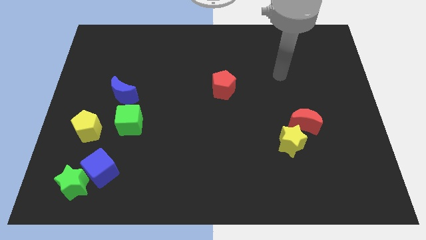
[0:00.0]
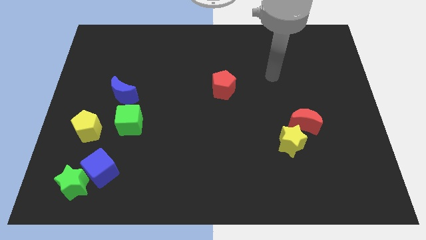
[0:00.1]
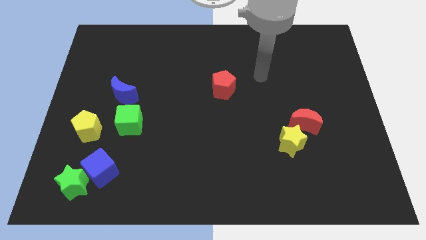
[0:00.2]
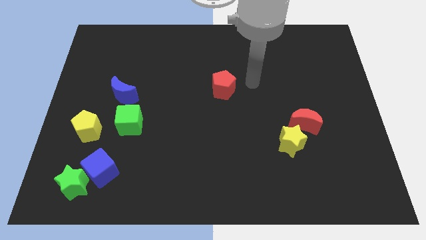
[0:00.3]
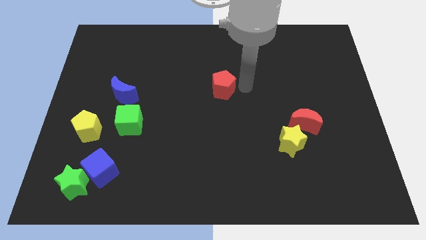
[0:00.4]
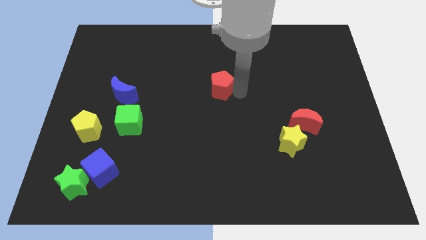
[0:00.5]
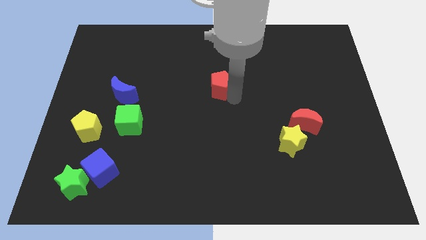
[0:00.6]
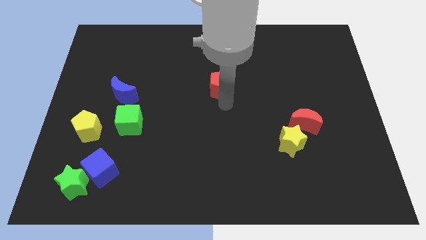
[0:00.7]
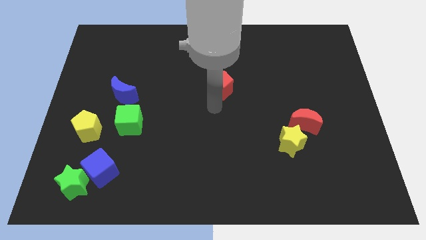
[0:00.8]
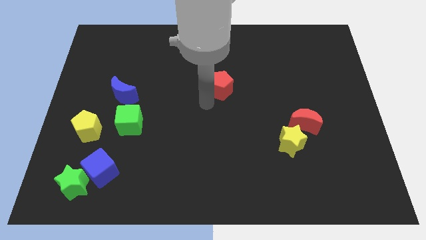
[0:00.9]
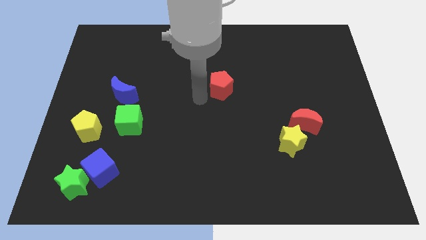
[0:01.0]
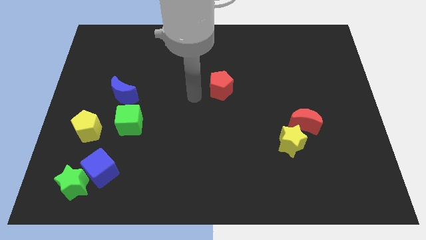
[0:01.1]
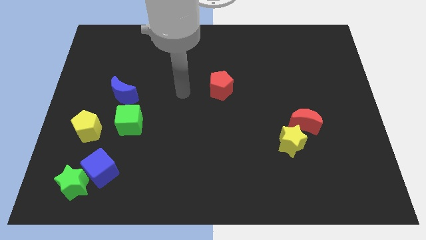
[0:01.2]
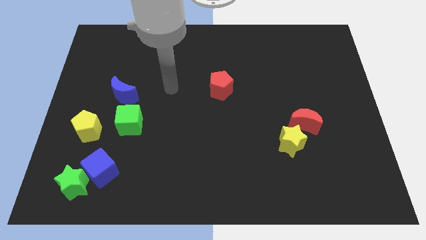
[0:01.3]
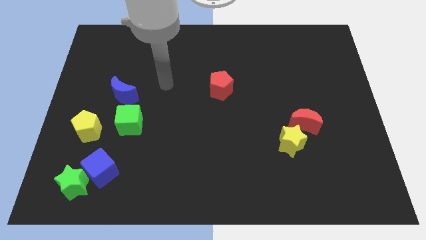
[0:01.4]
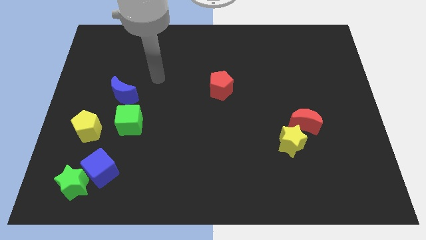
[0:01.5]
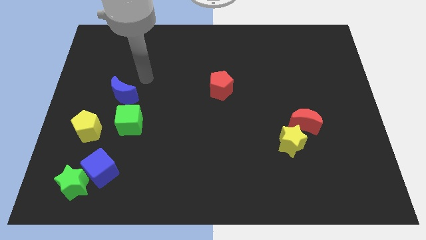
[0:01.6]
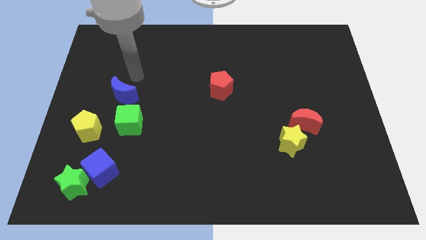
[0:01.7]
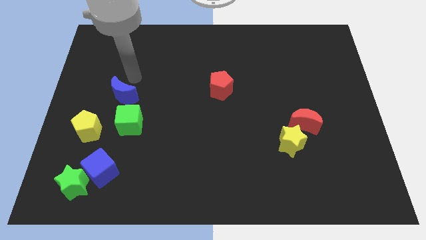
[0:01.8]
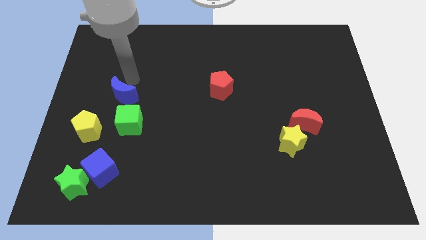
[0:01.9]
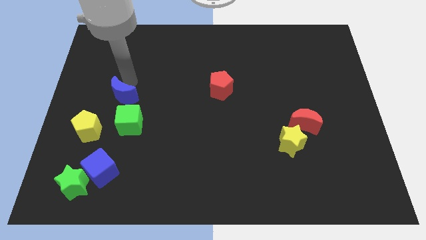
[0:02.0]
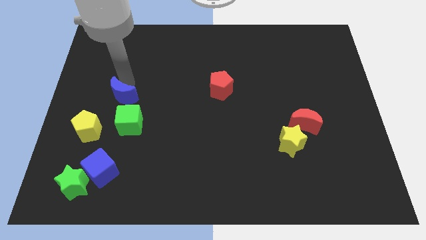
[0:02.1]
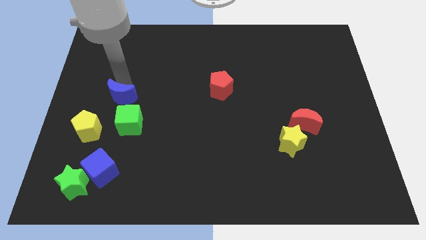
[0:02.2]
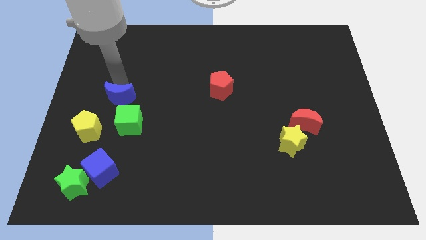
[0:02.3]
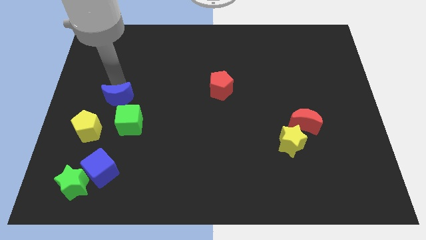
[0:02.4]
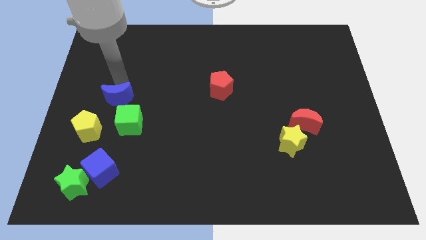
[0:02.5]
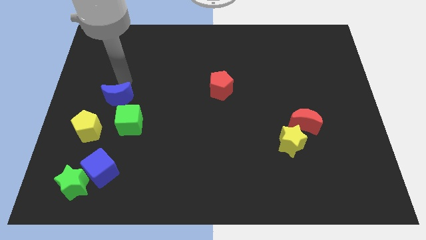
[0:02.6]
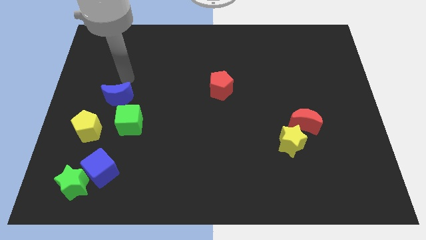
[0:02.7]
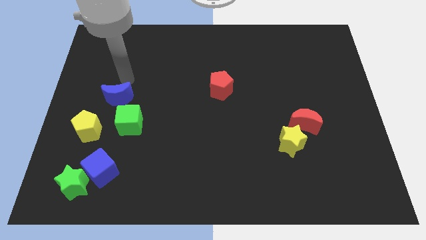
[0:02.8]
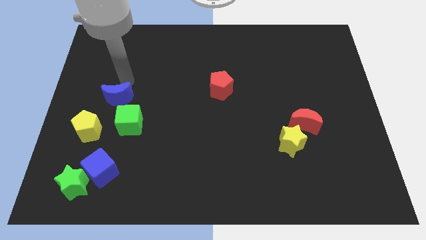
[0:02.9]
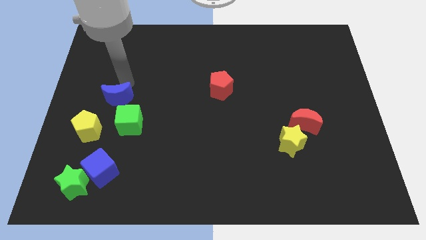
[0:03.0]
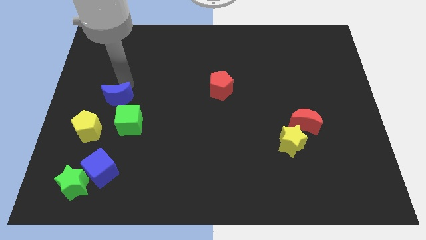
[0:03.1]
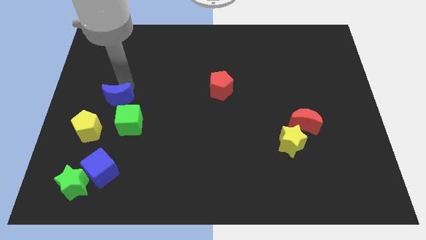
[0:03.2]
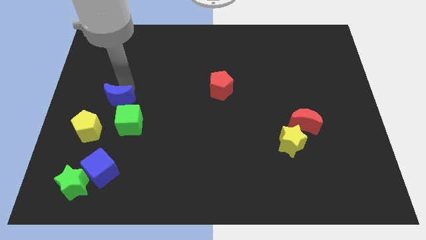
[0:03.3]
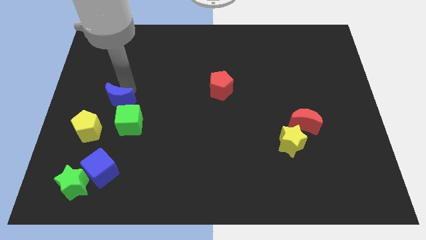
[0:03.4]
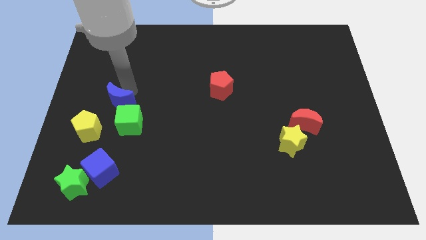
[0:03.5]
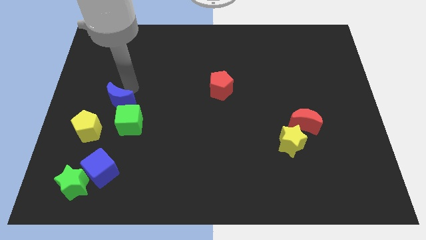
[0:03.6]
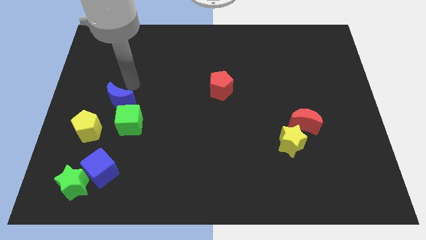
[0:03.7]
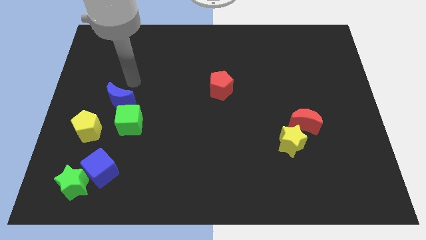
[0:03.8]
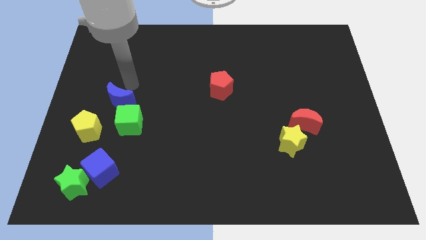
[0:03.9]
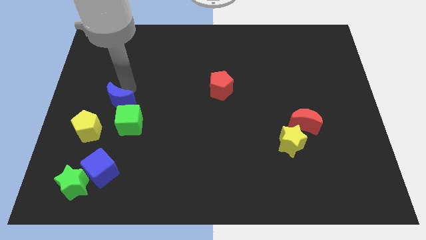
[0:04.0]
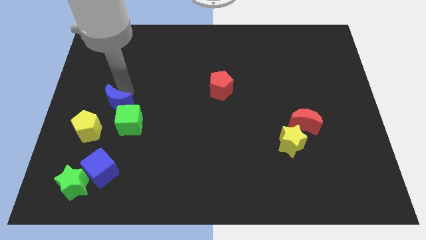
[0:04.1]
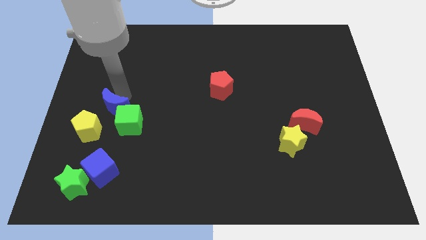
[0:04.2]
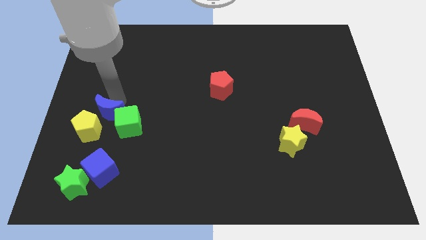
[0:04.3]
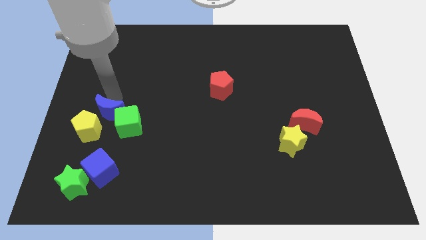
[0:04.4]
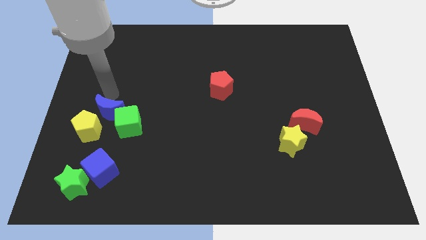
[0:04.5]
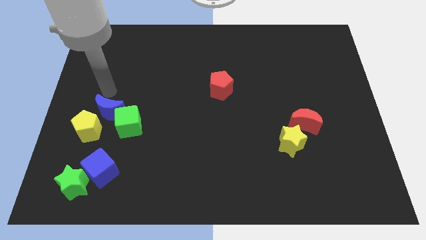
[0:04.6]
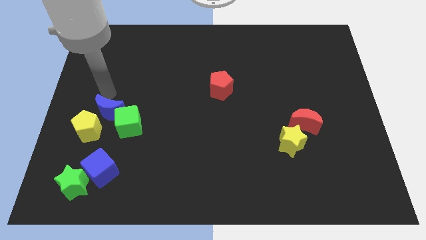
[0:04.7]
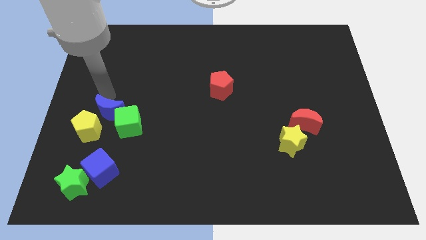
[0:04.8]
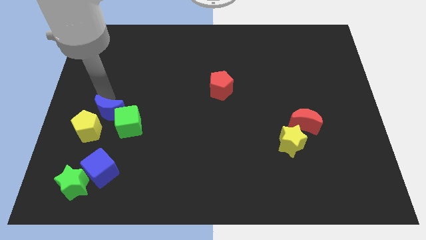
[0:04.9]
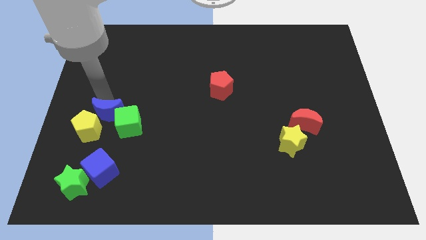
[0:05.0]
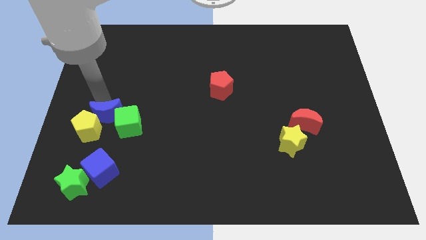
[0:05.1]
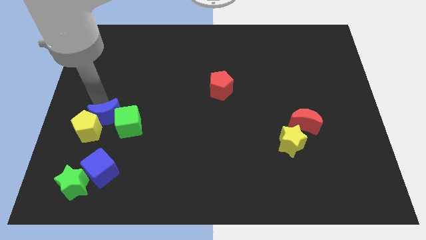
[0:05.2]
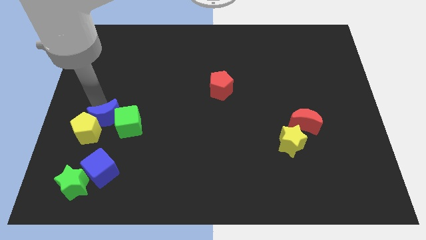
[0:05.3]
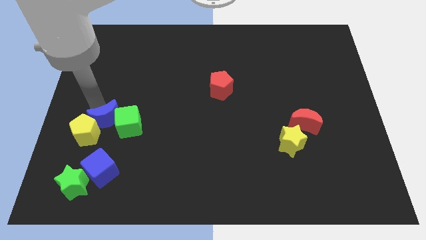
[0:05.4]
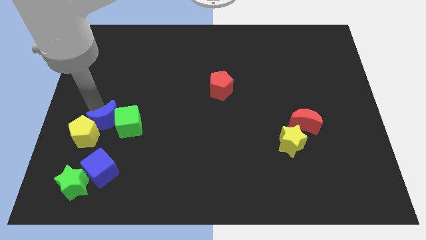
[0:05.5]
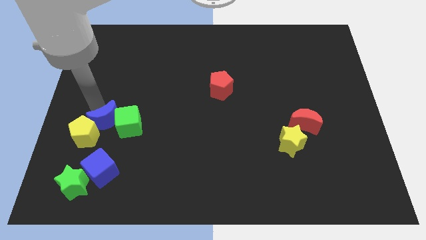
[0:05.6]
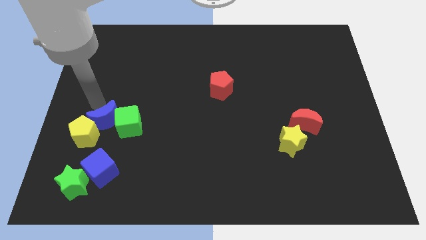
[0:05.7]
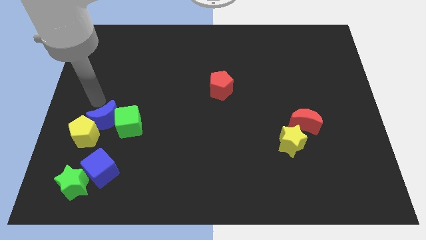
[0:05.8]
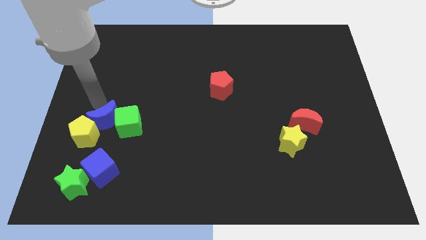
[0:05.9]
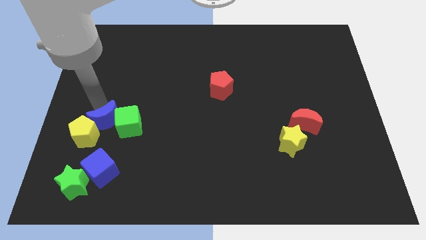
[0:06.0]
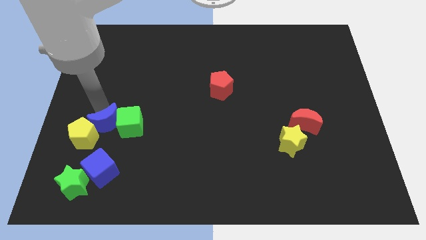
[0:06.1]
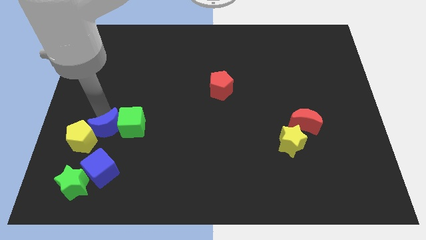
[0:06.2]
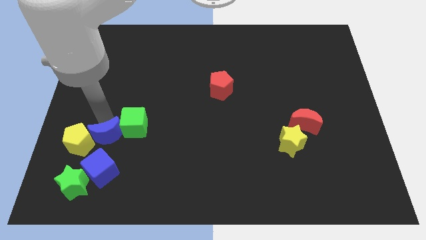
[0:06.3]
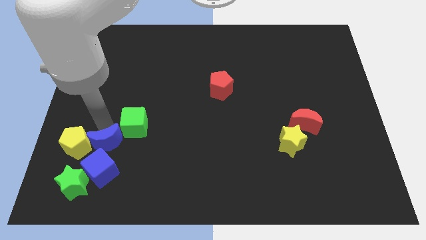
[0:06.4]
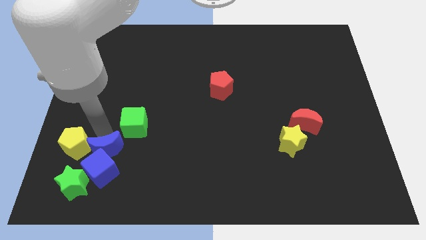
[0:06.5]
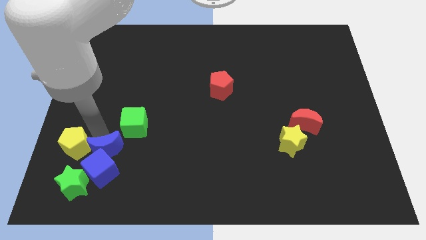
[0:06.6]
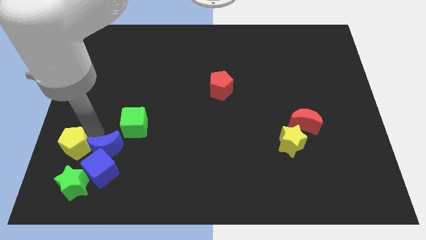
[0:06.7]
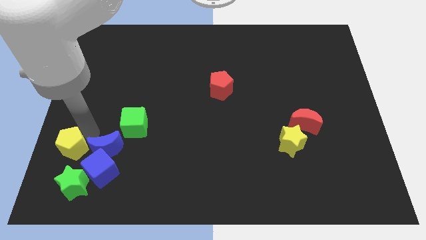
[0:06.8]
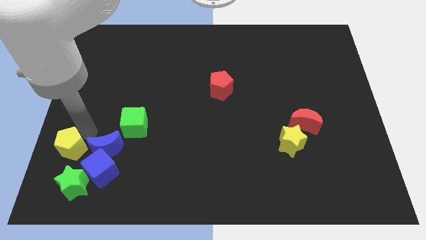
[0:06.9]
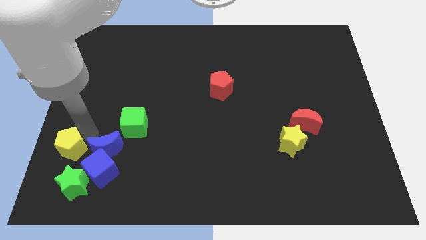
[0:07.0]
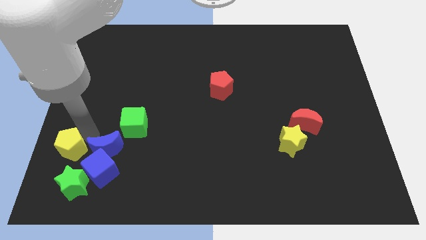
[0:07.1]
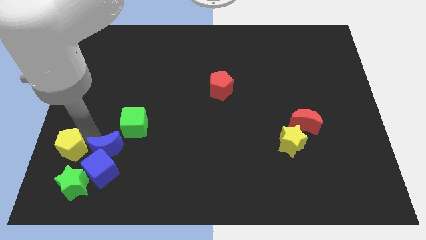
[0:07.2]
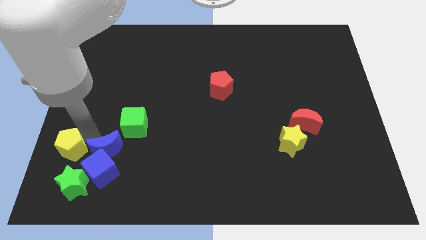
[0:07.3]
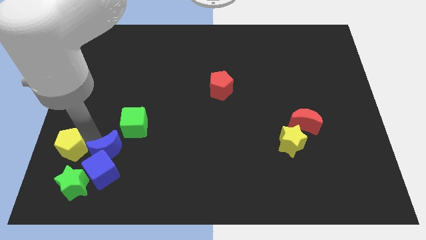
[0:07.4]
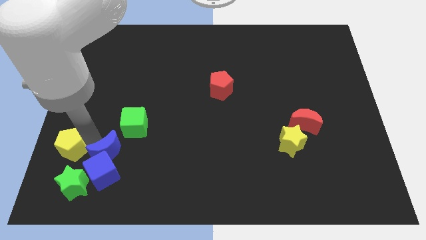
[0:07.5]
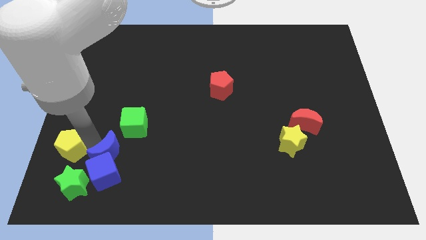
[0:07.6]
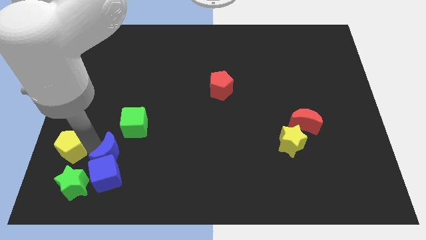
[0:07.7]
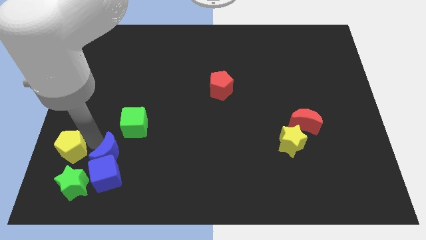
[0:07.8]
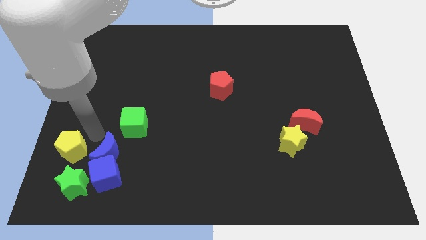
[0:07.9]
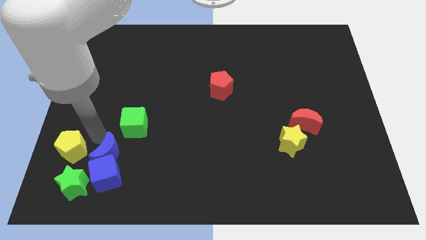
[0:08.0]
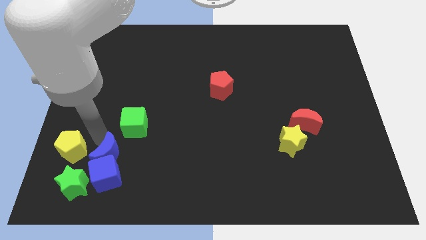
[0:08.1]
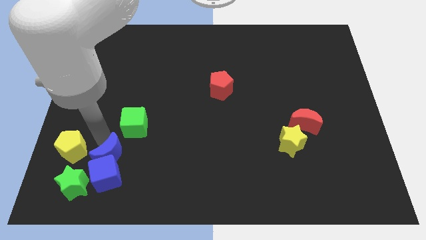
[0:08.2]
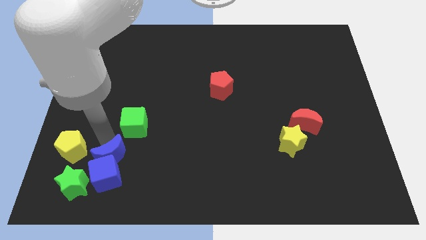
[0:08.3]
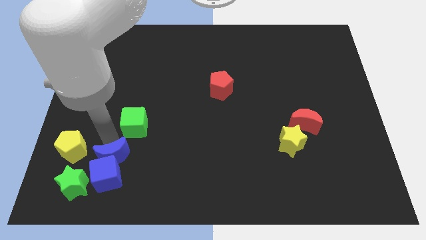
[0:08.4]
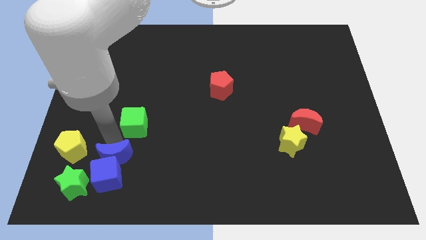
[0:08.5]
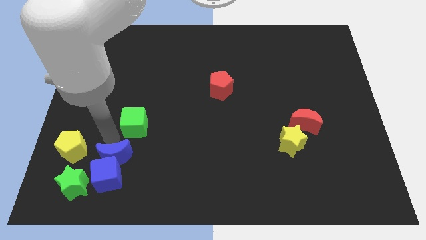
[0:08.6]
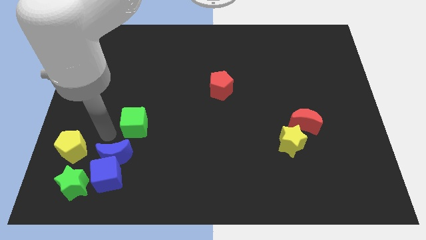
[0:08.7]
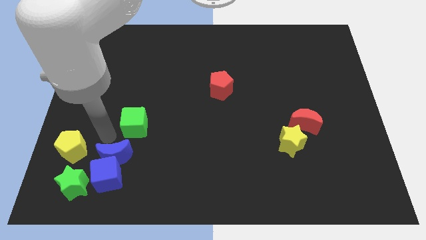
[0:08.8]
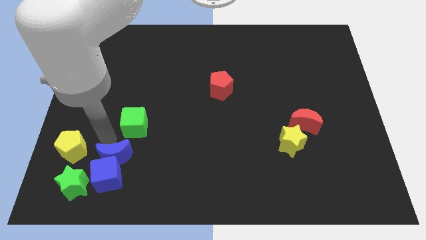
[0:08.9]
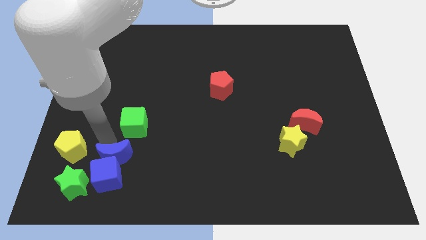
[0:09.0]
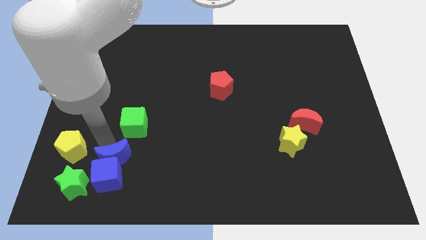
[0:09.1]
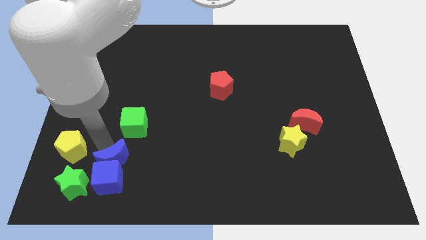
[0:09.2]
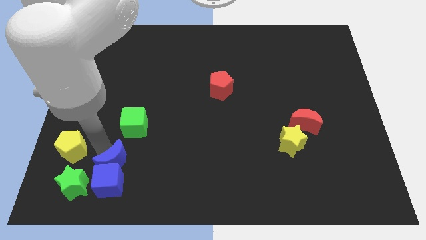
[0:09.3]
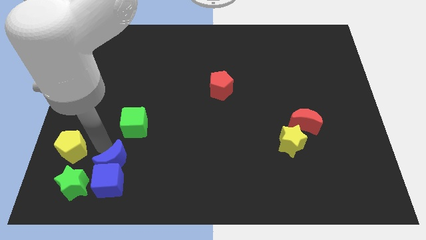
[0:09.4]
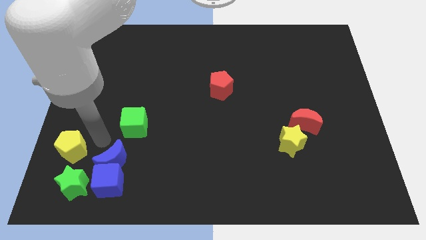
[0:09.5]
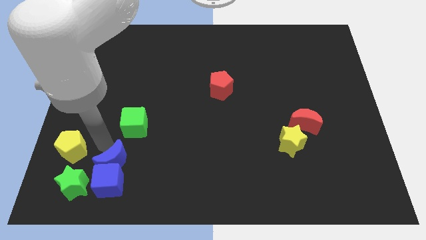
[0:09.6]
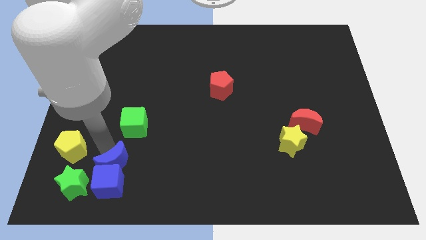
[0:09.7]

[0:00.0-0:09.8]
move the blue moon right of the green star
